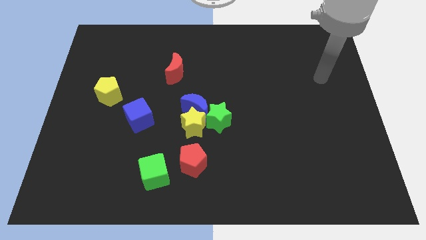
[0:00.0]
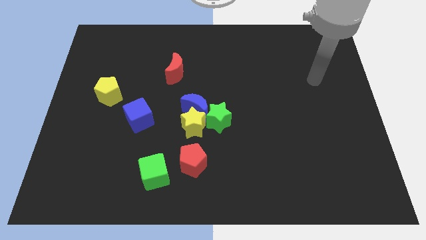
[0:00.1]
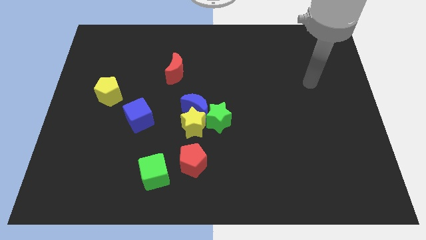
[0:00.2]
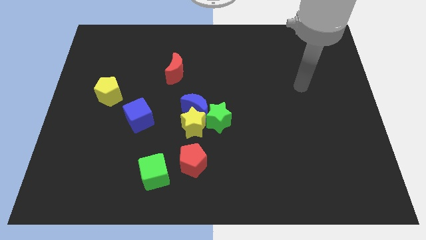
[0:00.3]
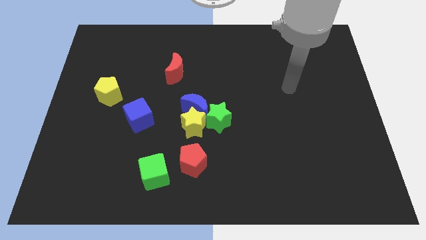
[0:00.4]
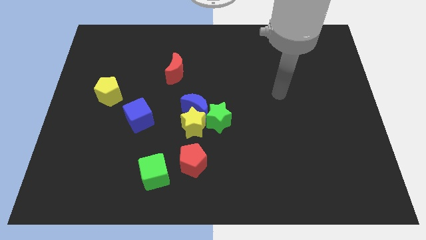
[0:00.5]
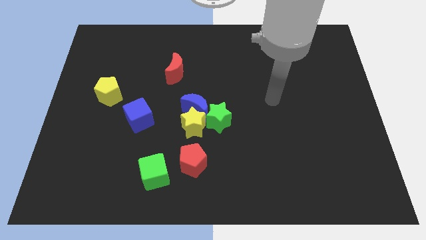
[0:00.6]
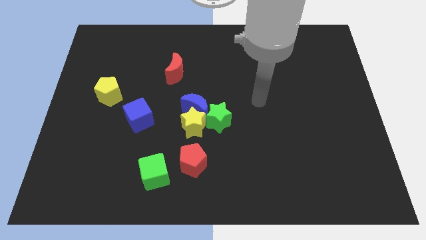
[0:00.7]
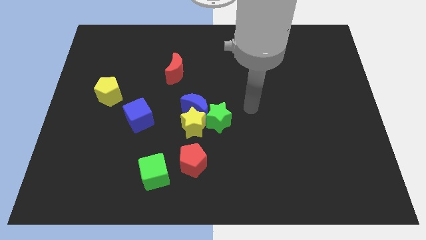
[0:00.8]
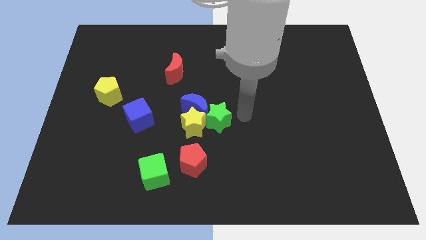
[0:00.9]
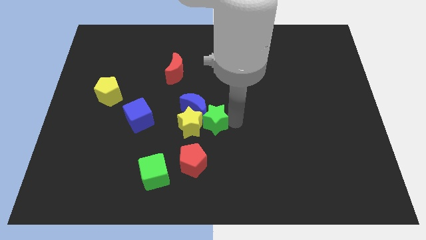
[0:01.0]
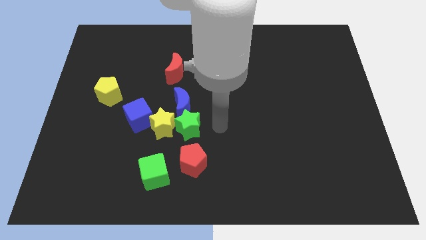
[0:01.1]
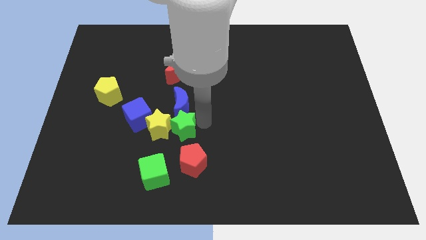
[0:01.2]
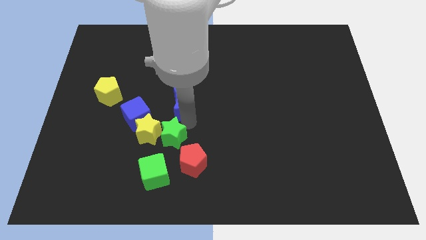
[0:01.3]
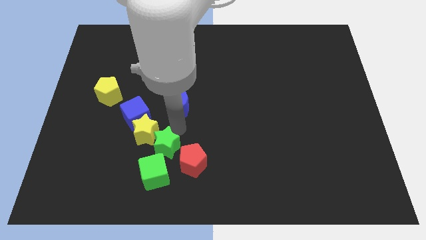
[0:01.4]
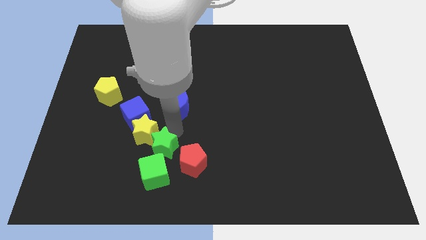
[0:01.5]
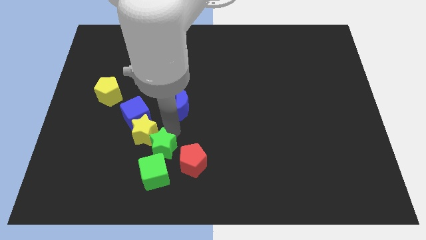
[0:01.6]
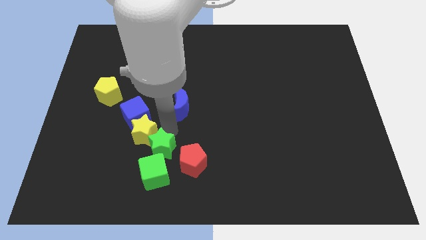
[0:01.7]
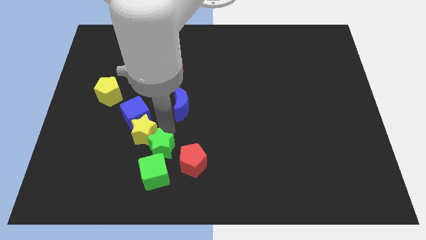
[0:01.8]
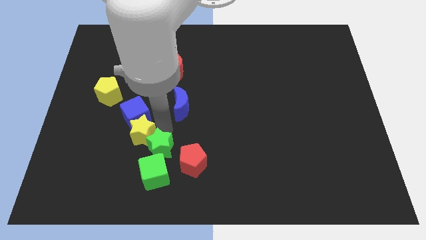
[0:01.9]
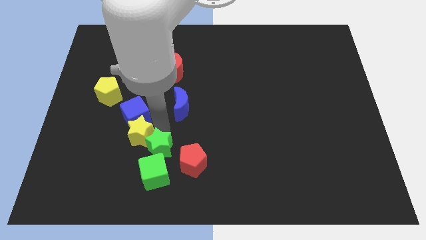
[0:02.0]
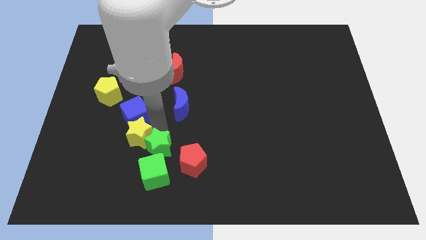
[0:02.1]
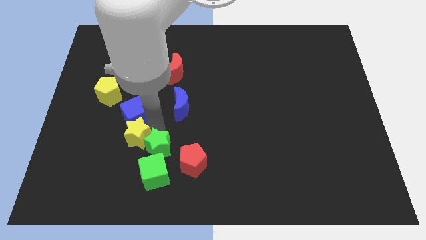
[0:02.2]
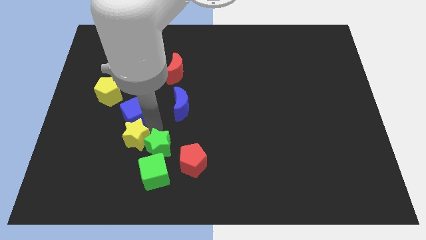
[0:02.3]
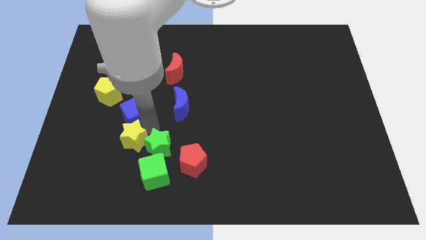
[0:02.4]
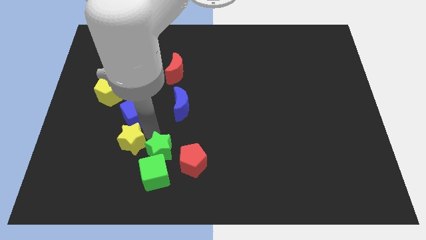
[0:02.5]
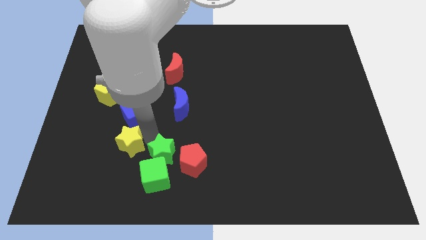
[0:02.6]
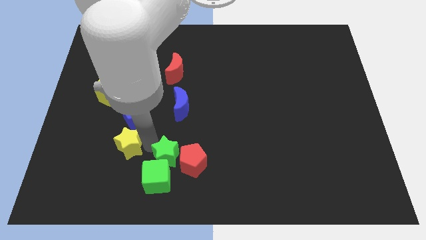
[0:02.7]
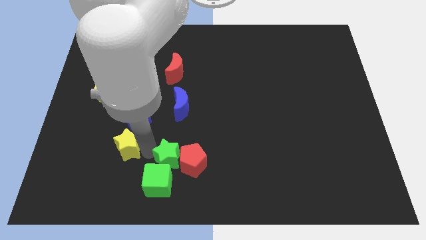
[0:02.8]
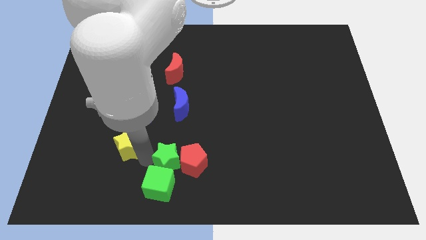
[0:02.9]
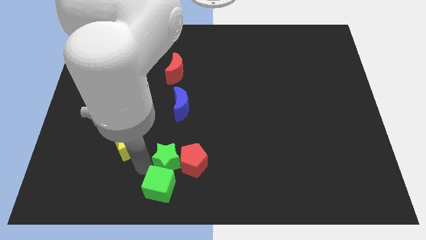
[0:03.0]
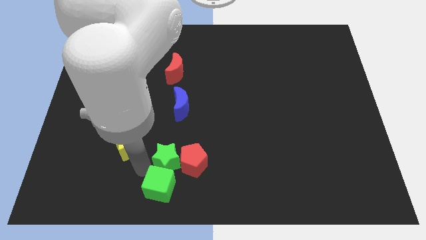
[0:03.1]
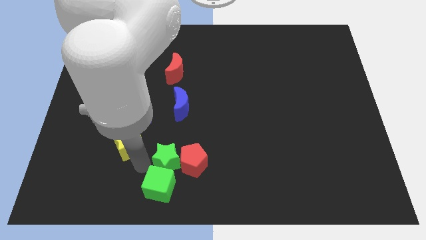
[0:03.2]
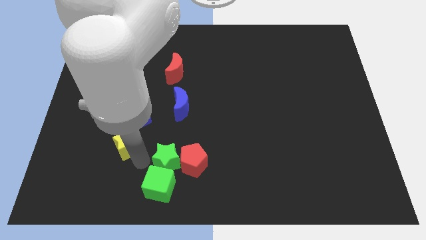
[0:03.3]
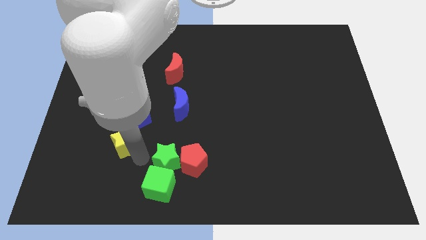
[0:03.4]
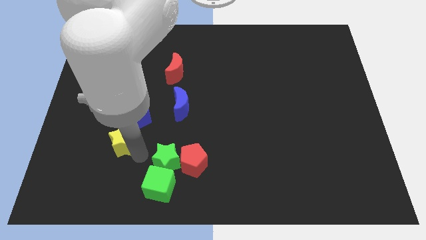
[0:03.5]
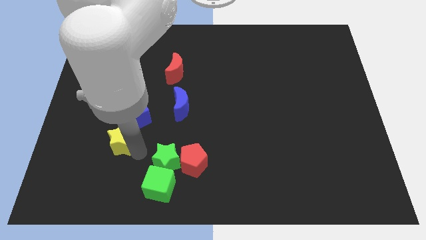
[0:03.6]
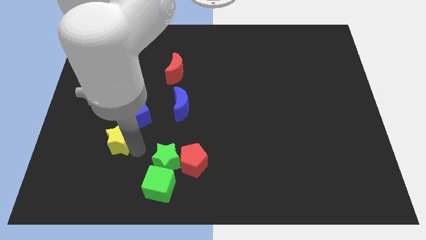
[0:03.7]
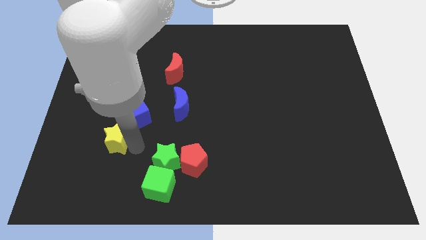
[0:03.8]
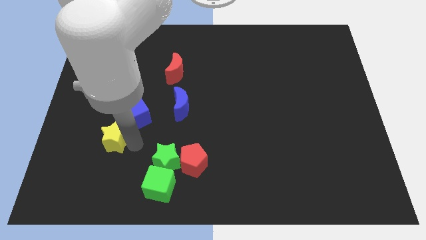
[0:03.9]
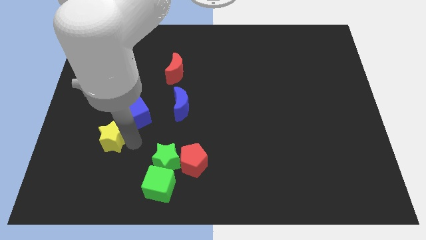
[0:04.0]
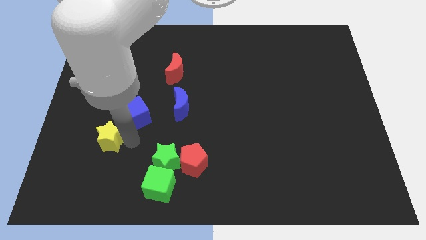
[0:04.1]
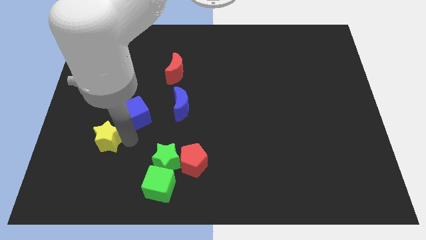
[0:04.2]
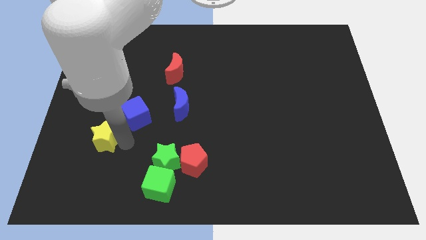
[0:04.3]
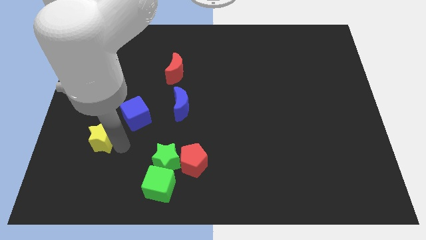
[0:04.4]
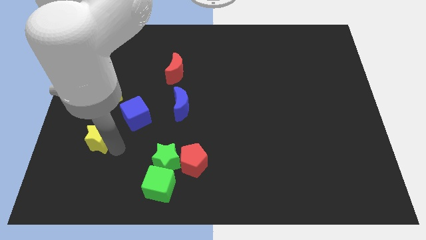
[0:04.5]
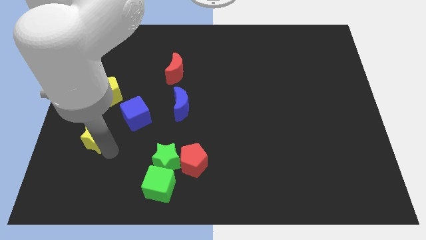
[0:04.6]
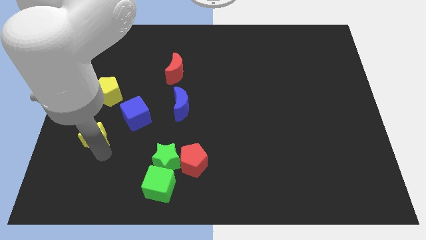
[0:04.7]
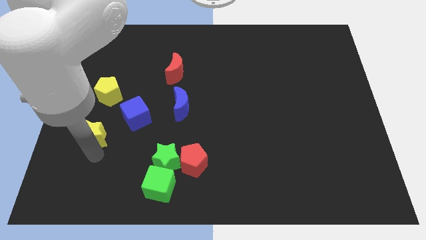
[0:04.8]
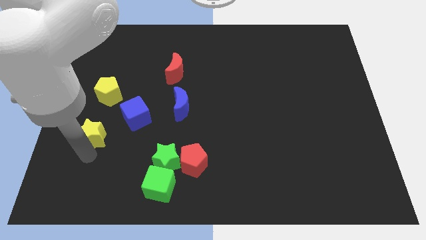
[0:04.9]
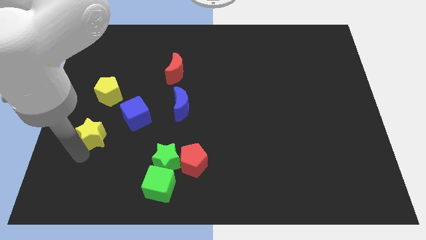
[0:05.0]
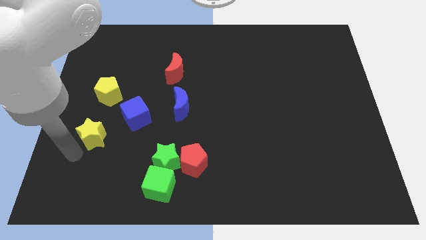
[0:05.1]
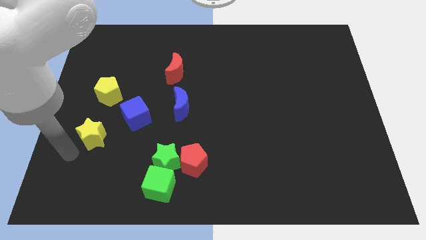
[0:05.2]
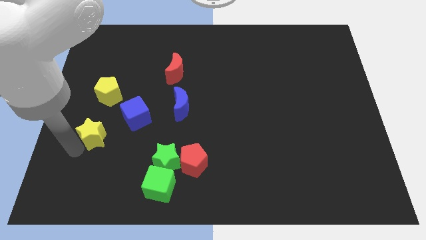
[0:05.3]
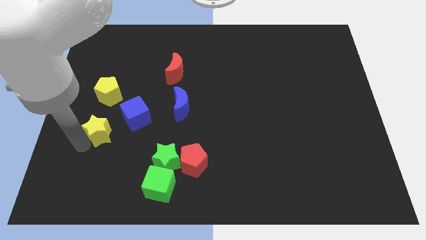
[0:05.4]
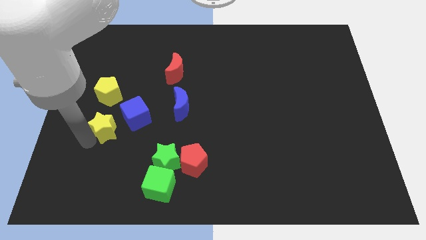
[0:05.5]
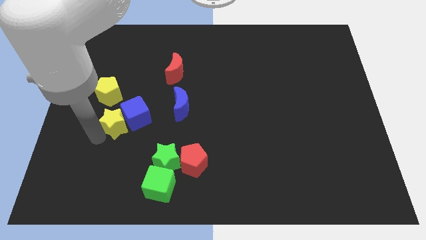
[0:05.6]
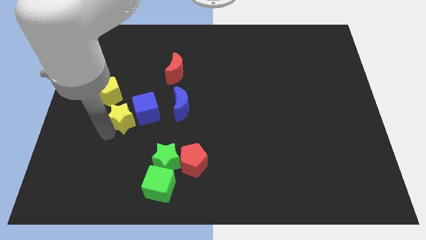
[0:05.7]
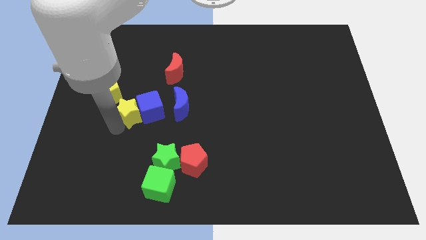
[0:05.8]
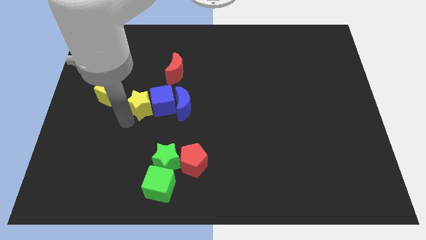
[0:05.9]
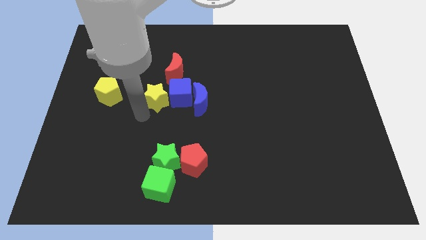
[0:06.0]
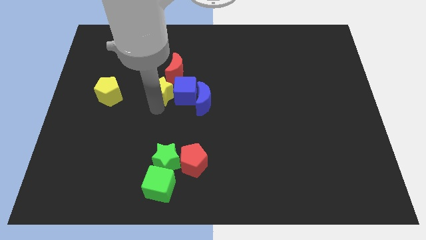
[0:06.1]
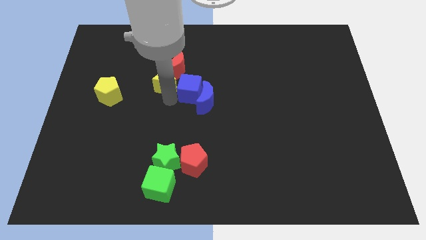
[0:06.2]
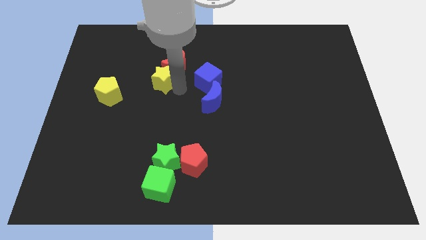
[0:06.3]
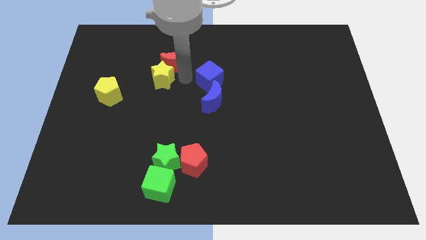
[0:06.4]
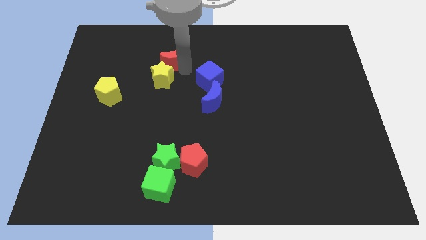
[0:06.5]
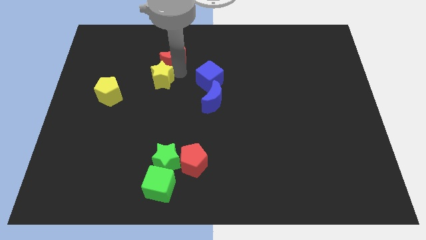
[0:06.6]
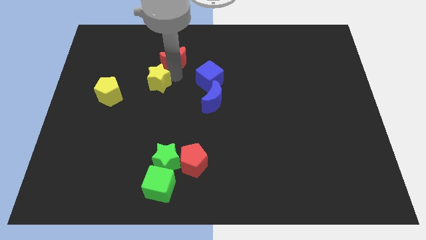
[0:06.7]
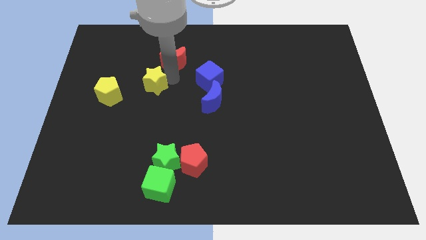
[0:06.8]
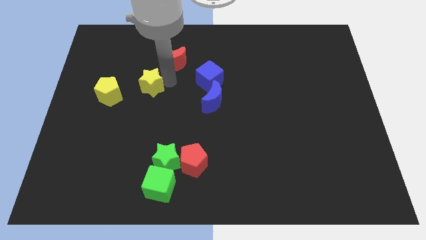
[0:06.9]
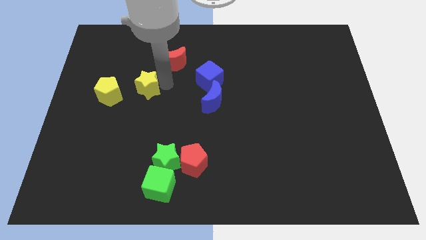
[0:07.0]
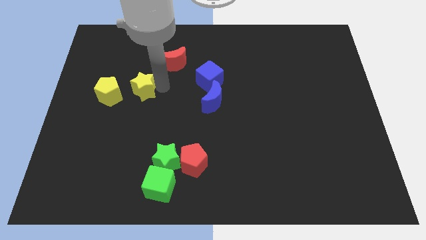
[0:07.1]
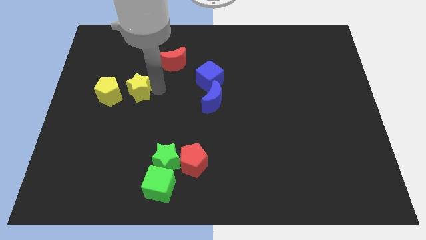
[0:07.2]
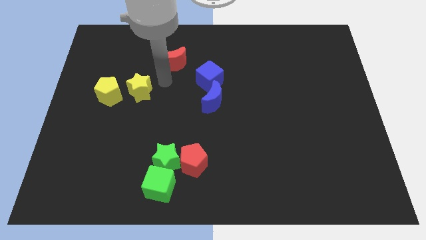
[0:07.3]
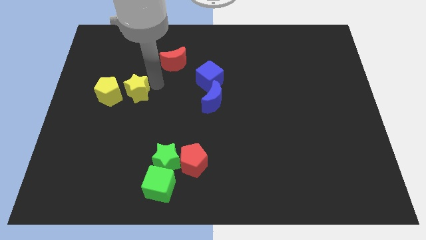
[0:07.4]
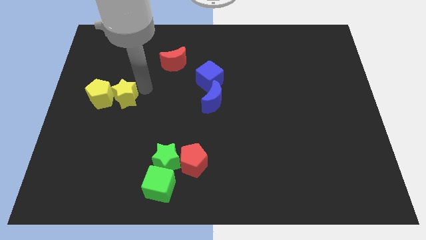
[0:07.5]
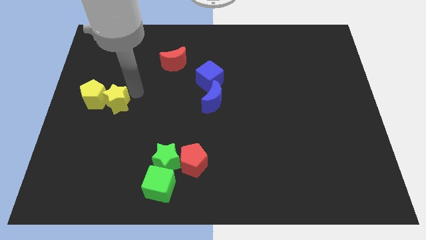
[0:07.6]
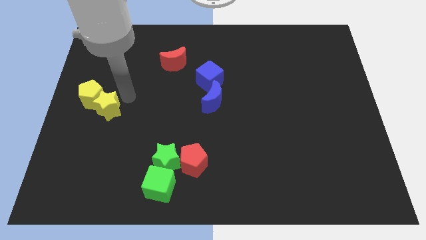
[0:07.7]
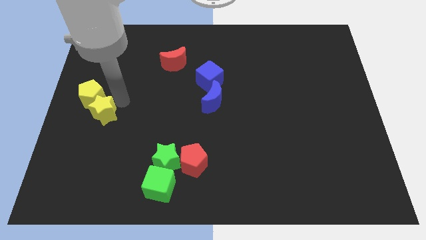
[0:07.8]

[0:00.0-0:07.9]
push the yellow star to the left side of the board
